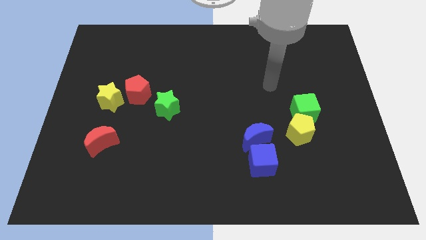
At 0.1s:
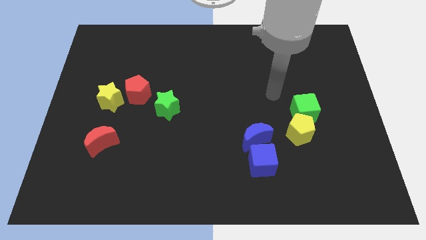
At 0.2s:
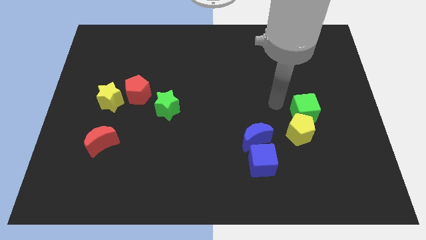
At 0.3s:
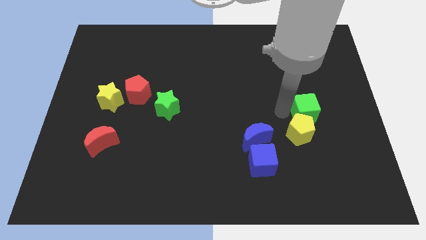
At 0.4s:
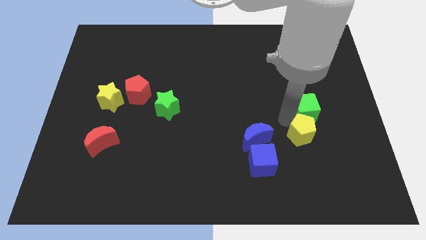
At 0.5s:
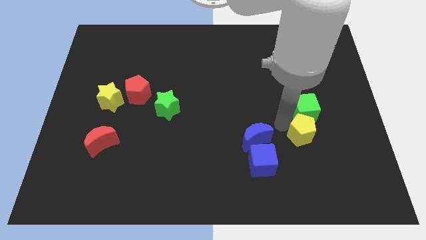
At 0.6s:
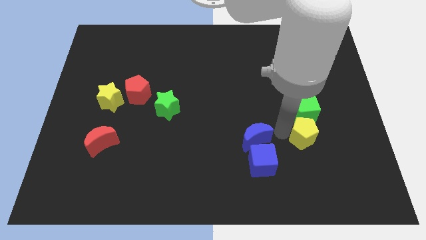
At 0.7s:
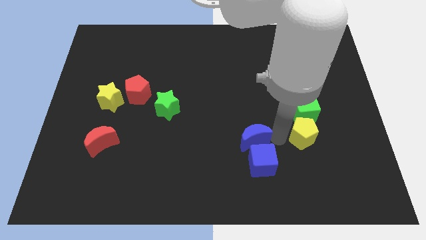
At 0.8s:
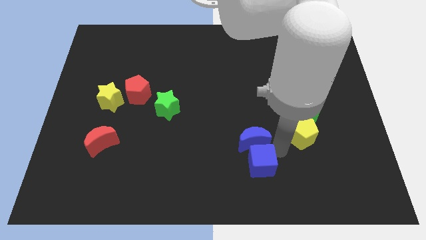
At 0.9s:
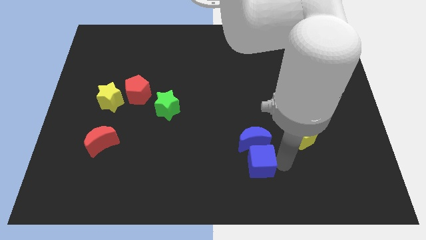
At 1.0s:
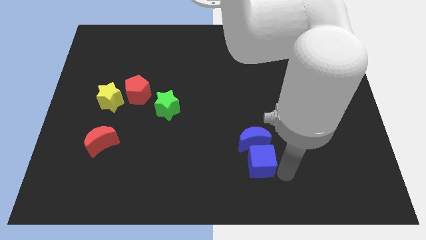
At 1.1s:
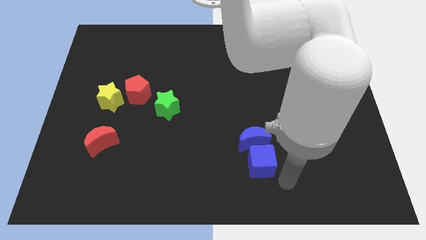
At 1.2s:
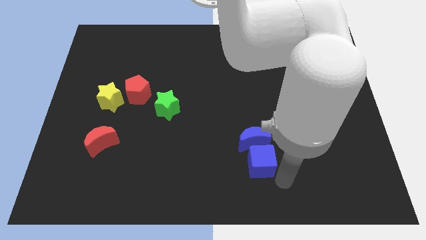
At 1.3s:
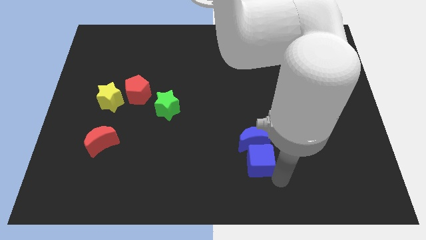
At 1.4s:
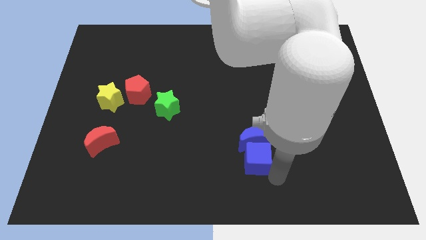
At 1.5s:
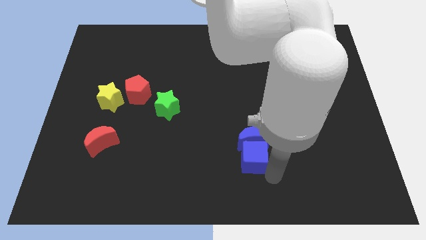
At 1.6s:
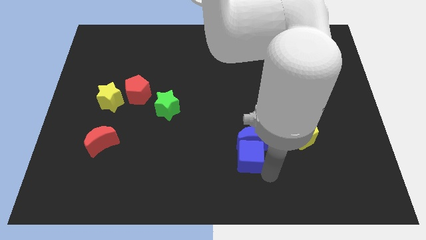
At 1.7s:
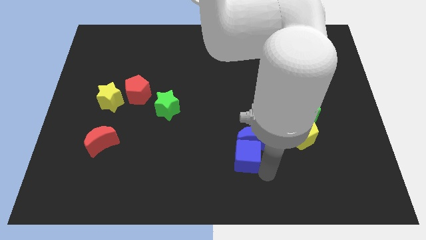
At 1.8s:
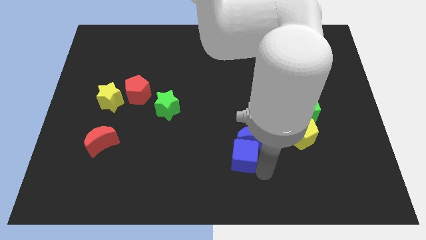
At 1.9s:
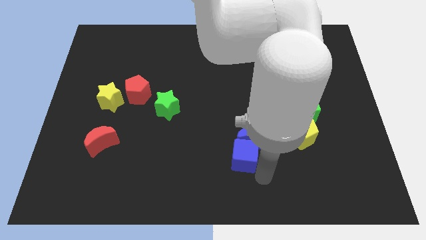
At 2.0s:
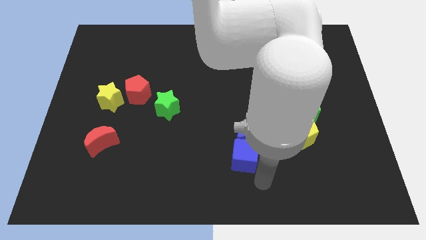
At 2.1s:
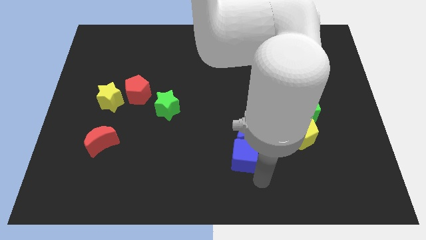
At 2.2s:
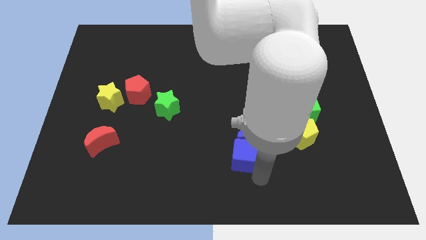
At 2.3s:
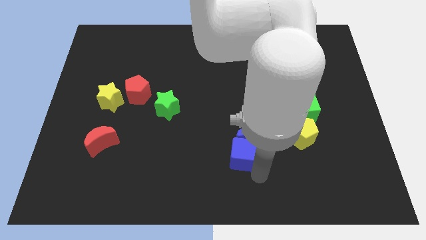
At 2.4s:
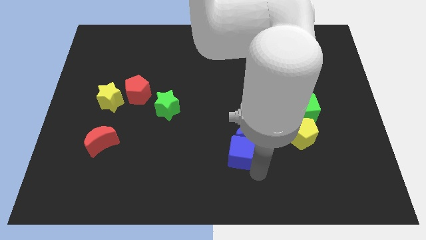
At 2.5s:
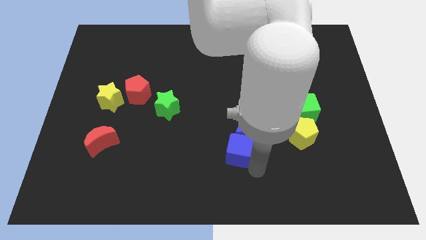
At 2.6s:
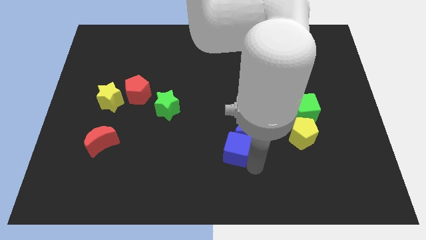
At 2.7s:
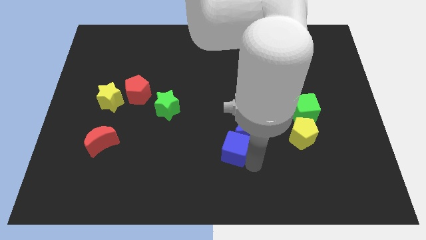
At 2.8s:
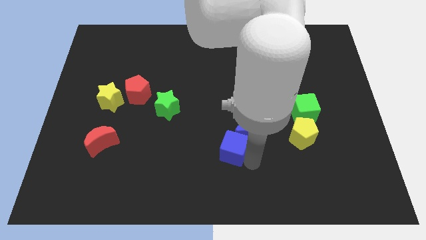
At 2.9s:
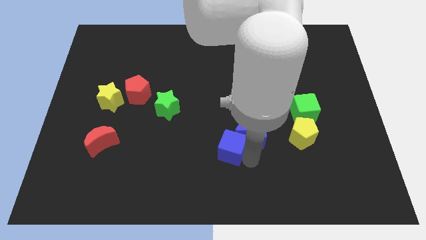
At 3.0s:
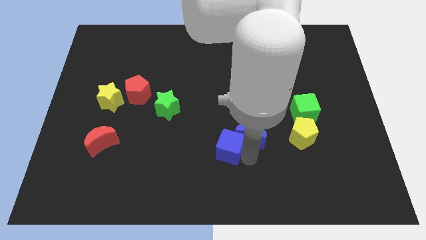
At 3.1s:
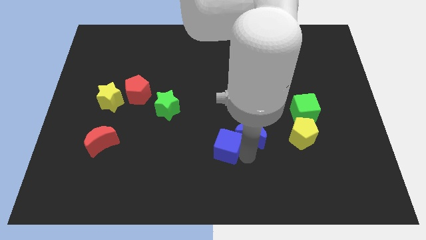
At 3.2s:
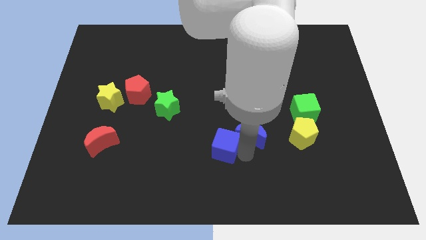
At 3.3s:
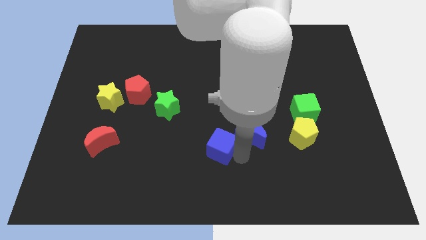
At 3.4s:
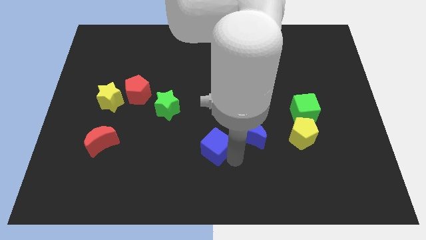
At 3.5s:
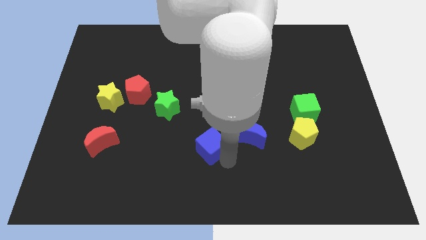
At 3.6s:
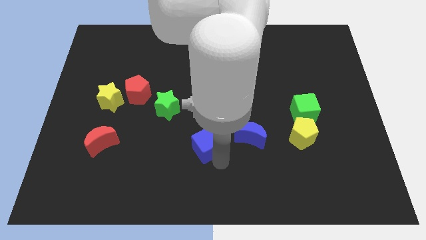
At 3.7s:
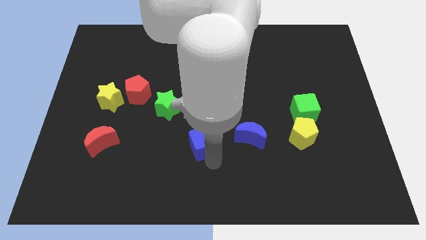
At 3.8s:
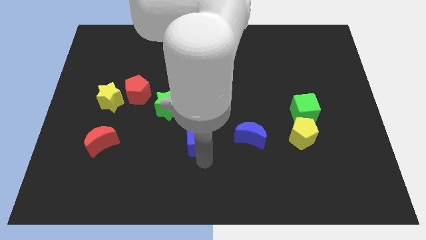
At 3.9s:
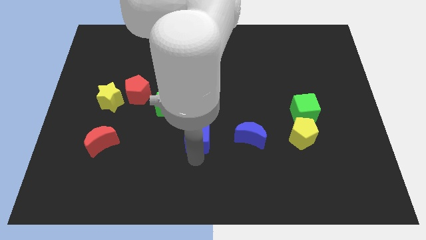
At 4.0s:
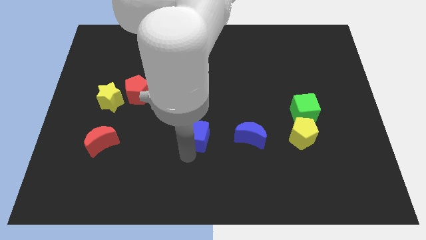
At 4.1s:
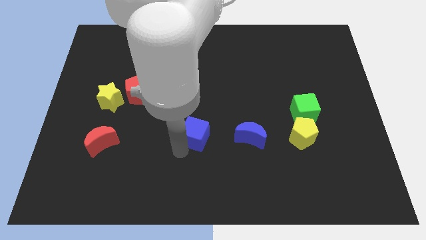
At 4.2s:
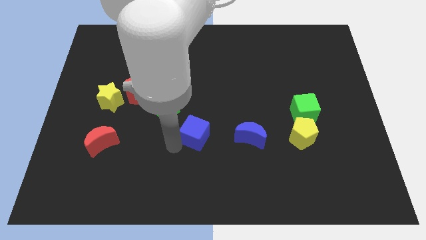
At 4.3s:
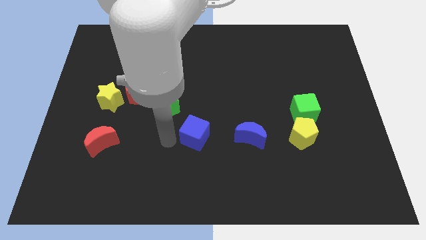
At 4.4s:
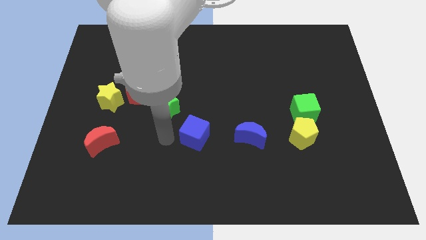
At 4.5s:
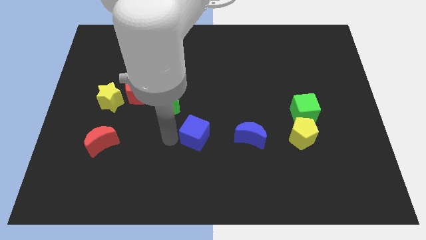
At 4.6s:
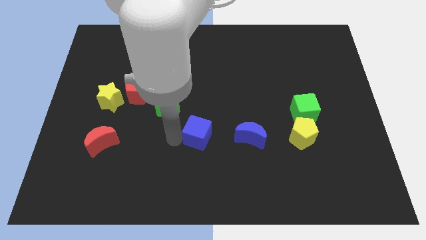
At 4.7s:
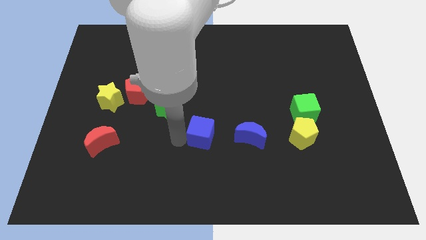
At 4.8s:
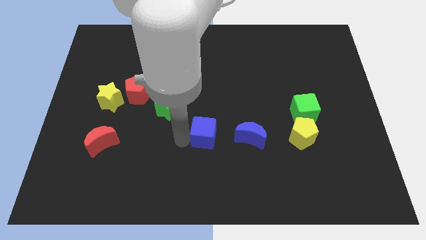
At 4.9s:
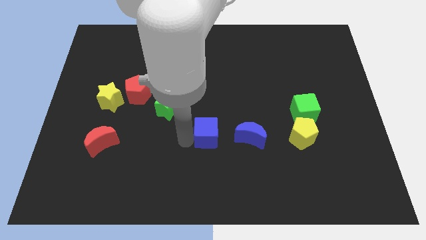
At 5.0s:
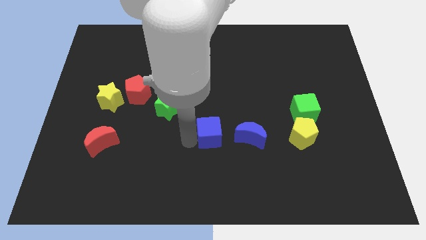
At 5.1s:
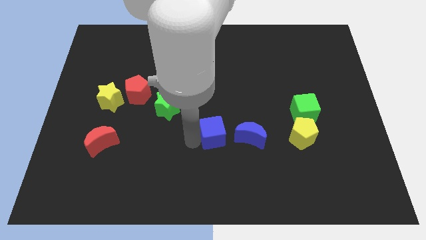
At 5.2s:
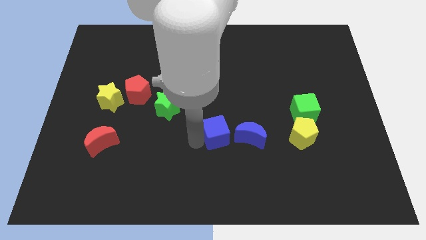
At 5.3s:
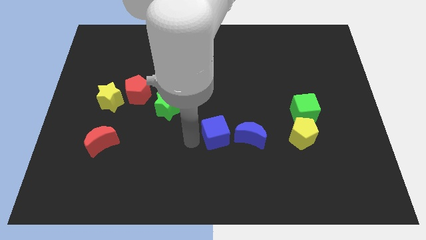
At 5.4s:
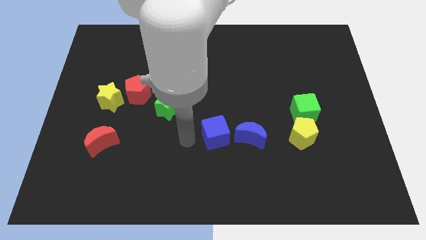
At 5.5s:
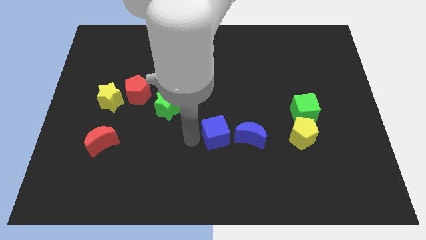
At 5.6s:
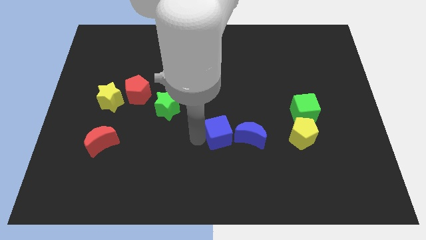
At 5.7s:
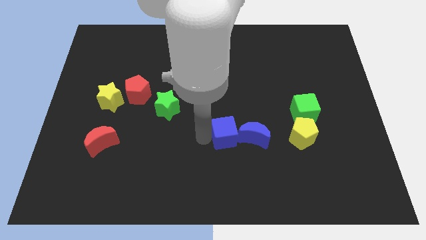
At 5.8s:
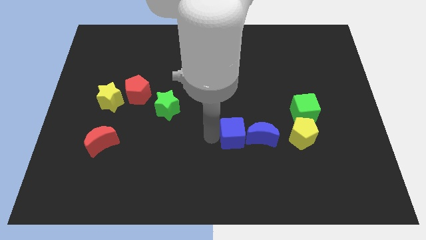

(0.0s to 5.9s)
slide the blue cube to the left side of the yellow pentagon

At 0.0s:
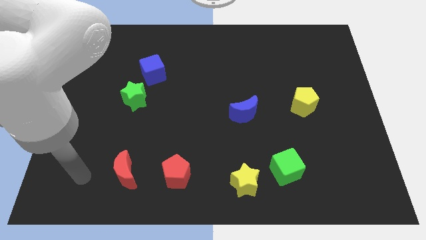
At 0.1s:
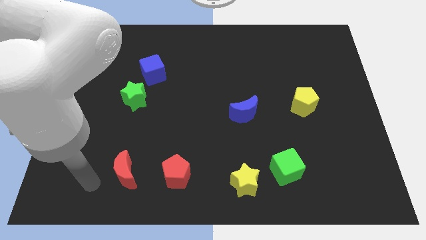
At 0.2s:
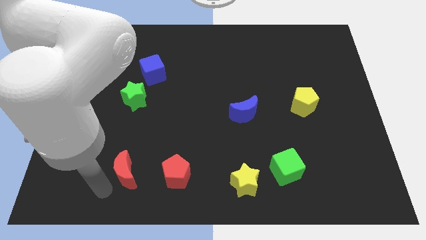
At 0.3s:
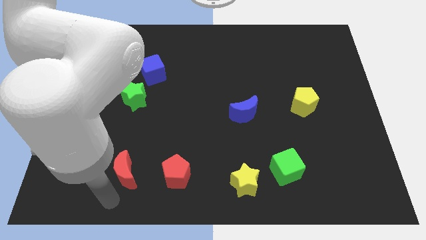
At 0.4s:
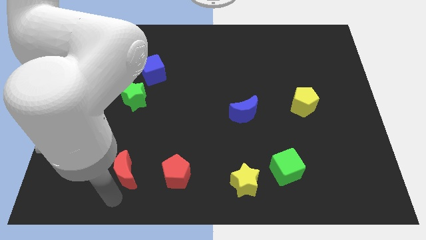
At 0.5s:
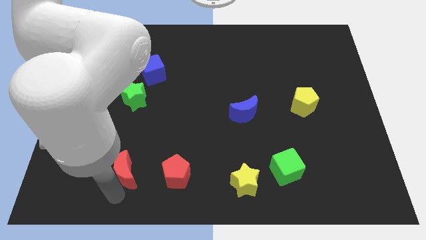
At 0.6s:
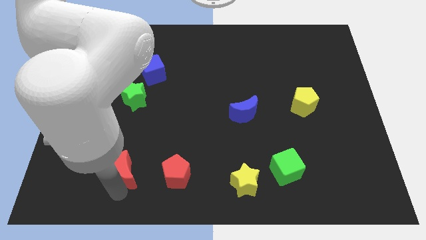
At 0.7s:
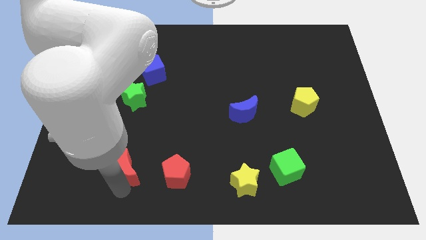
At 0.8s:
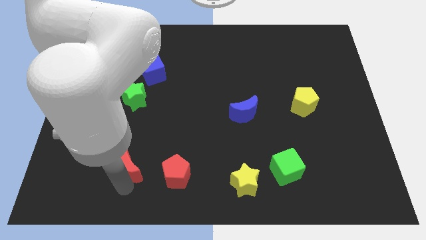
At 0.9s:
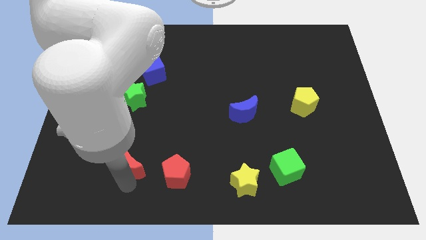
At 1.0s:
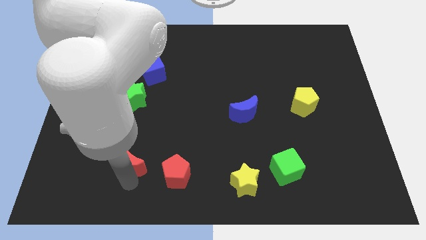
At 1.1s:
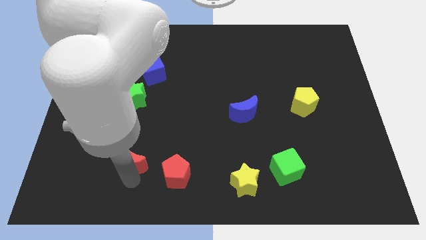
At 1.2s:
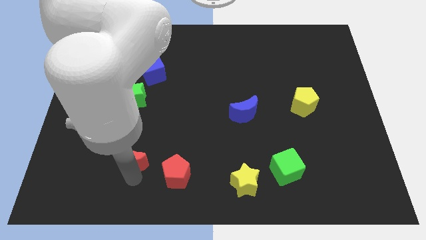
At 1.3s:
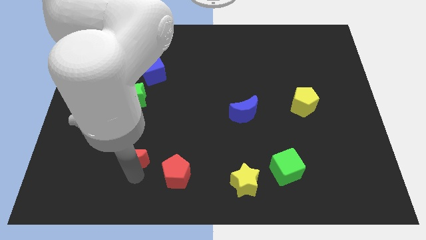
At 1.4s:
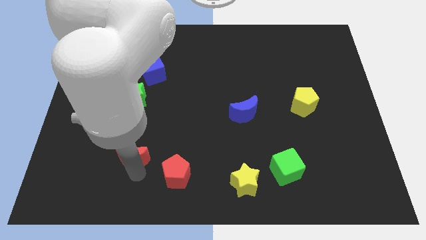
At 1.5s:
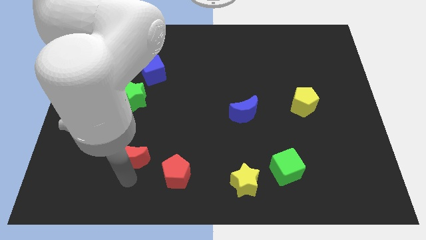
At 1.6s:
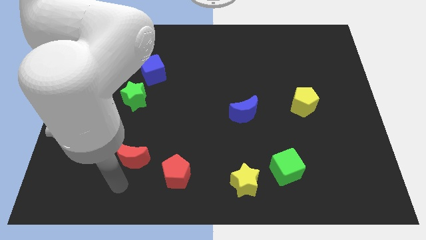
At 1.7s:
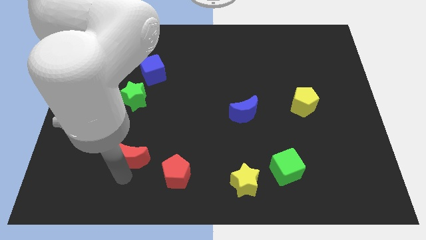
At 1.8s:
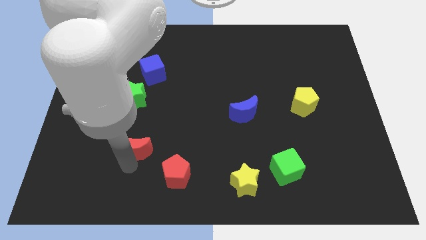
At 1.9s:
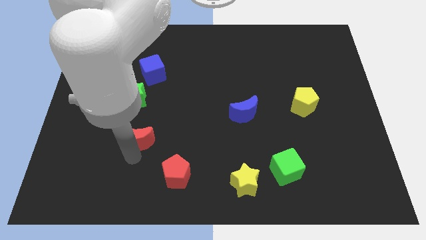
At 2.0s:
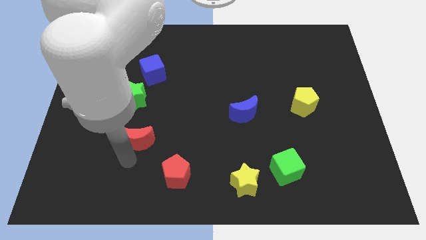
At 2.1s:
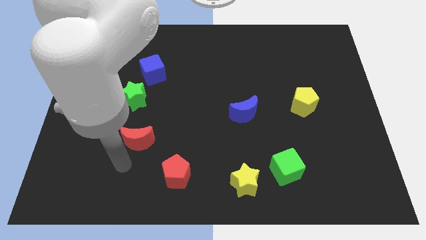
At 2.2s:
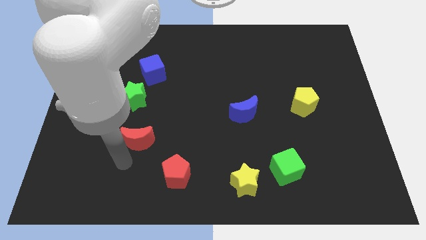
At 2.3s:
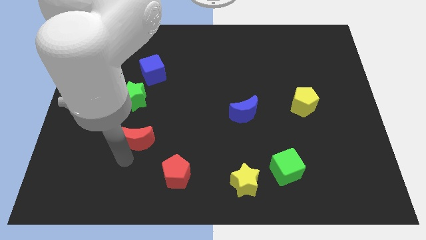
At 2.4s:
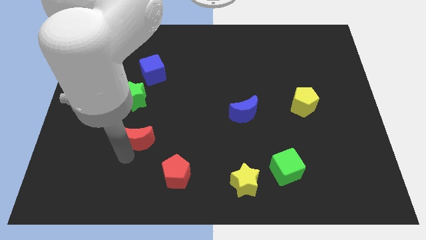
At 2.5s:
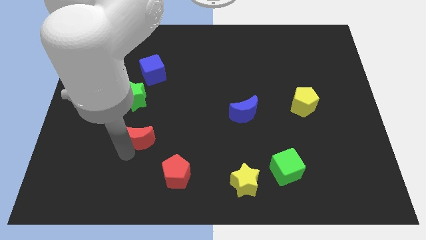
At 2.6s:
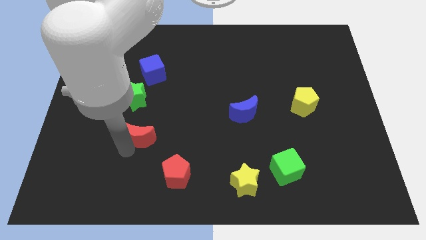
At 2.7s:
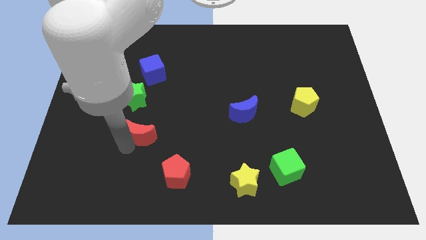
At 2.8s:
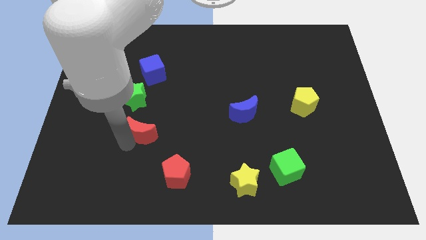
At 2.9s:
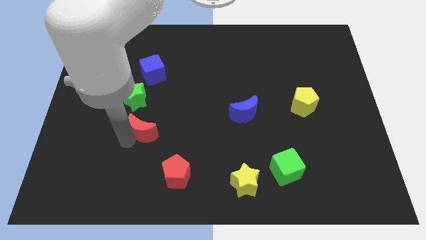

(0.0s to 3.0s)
put the red moon diagonally down and to the right of the green star
